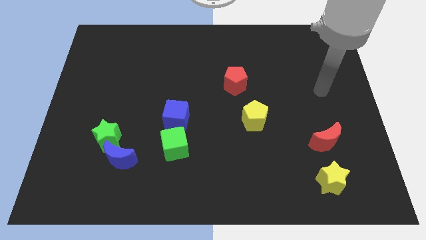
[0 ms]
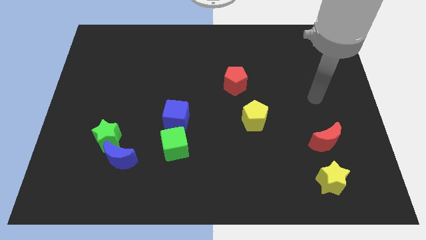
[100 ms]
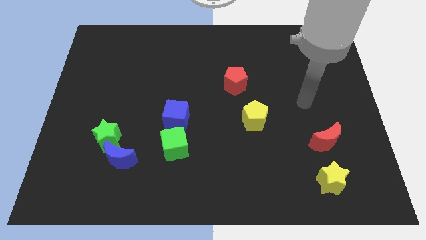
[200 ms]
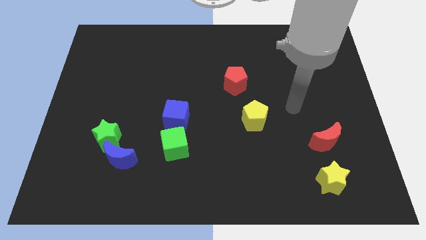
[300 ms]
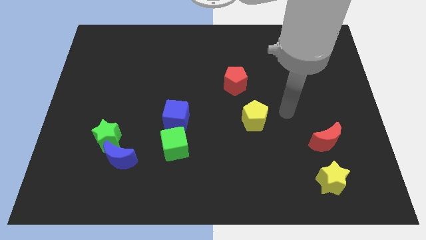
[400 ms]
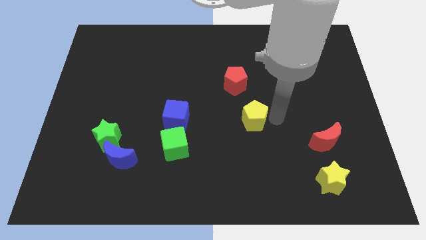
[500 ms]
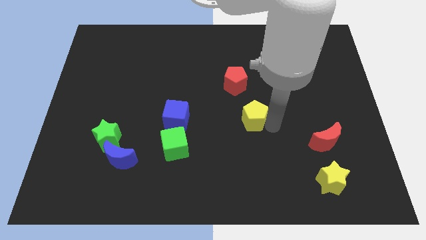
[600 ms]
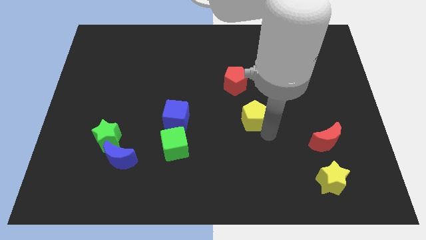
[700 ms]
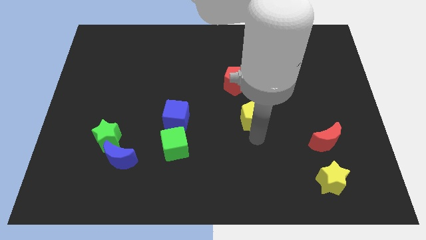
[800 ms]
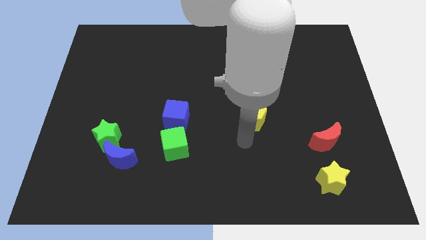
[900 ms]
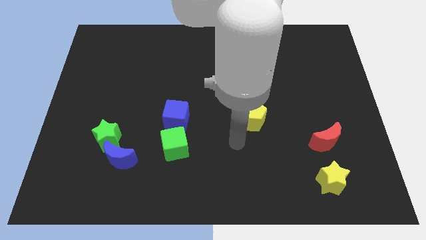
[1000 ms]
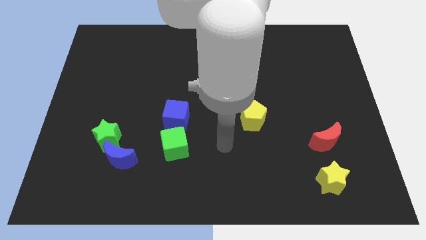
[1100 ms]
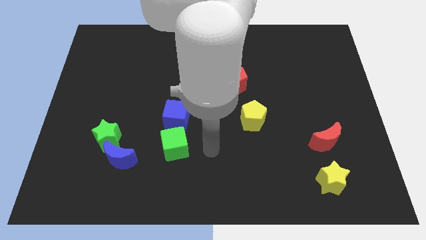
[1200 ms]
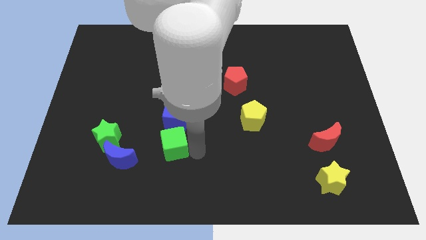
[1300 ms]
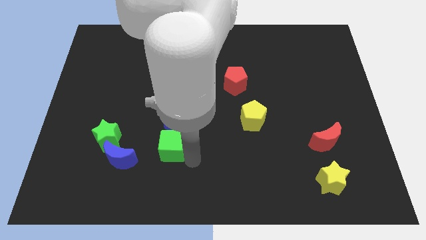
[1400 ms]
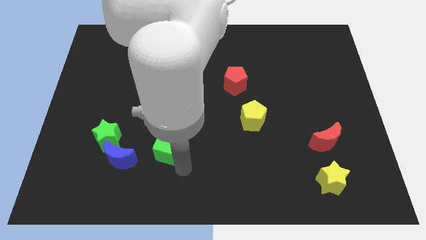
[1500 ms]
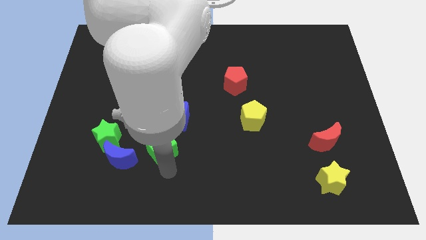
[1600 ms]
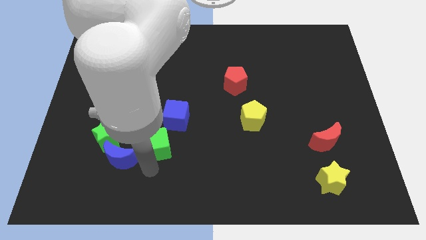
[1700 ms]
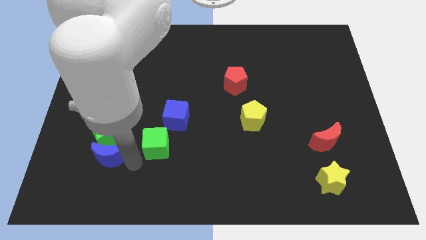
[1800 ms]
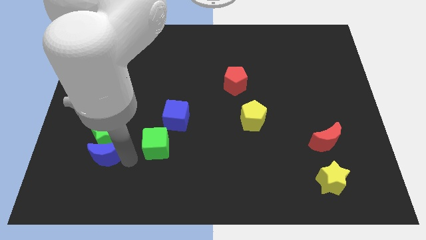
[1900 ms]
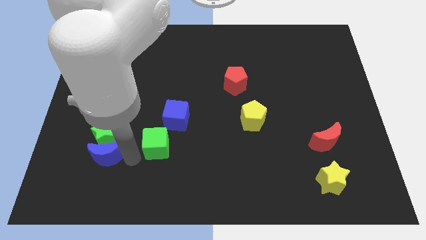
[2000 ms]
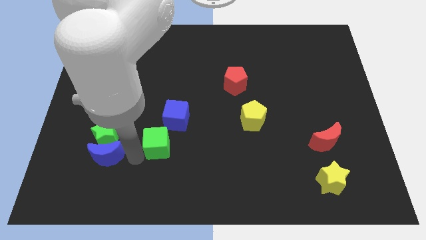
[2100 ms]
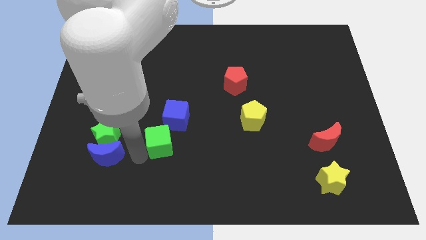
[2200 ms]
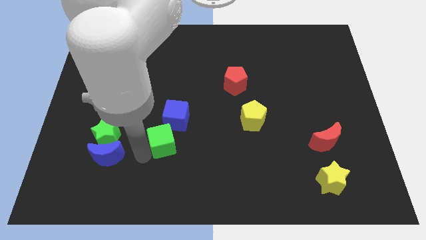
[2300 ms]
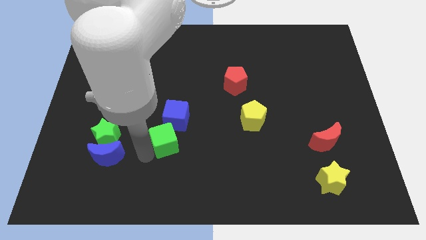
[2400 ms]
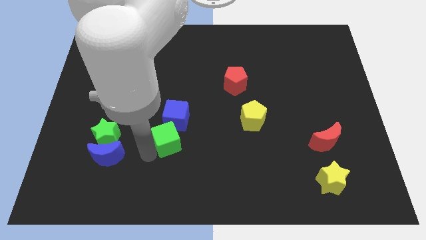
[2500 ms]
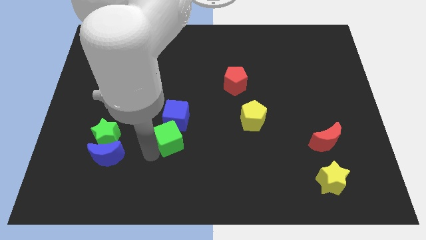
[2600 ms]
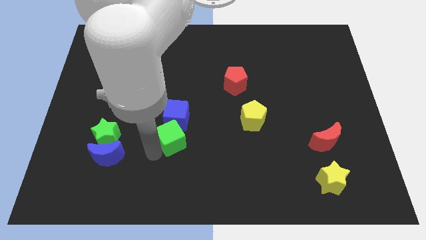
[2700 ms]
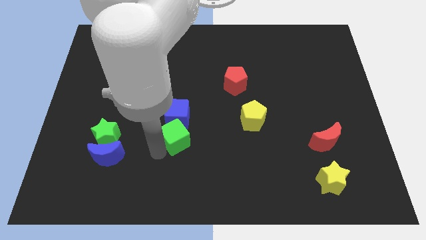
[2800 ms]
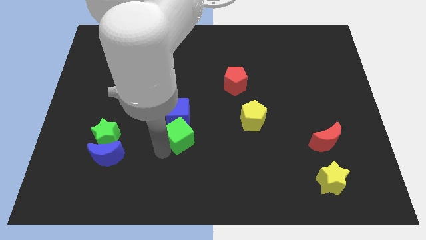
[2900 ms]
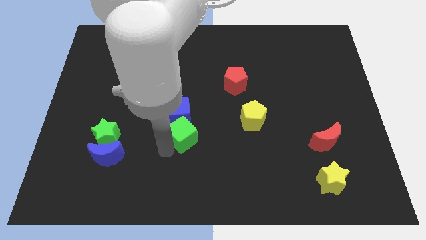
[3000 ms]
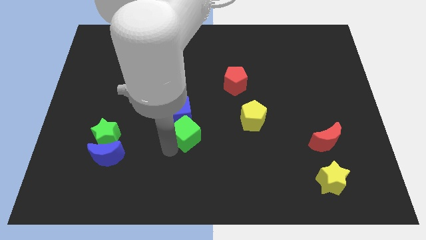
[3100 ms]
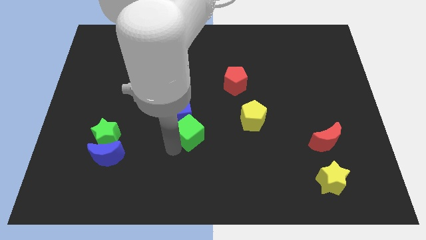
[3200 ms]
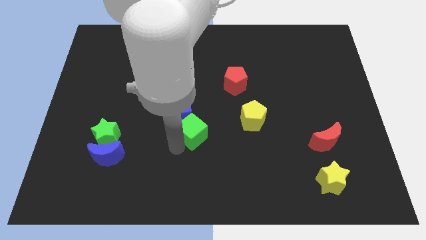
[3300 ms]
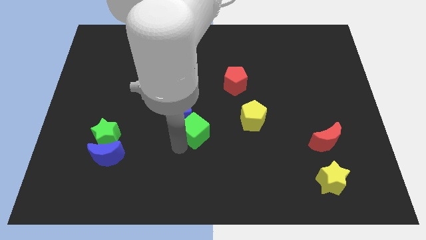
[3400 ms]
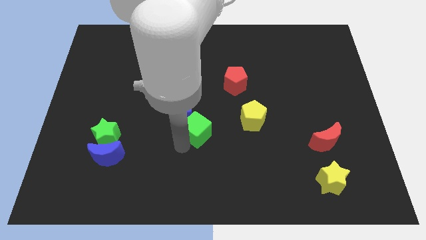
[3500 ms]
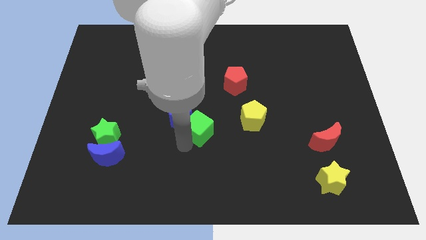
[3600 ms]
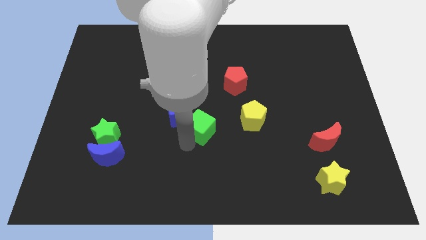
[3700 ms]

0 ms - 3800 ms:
slide the green cube slightly diagonally up and to the right

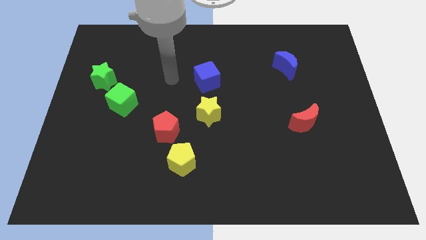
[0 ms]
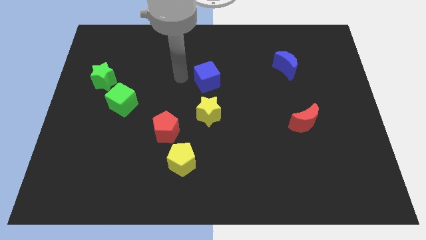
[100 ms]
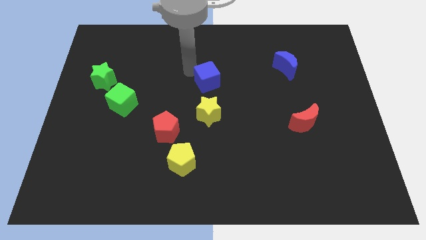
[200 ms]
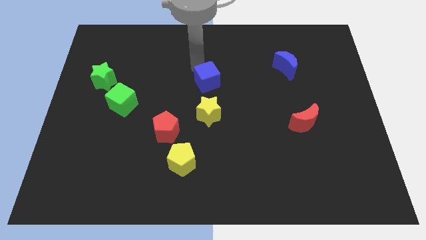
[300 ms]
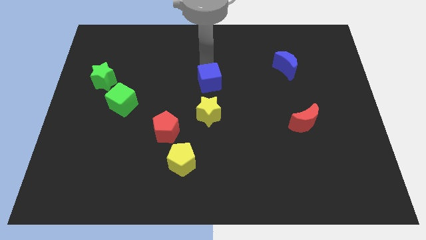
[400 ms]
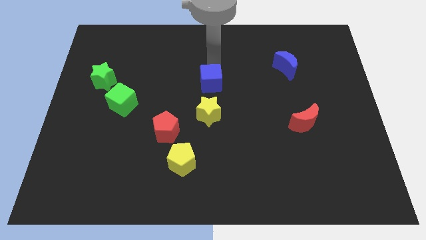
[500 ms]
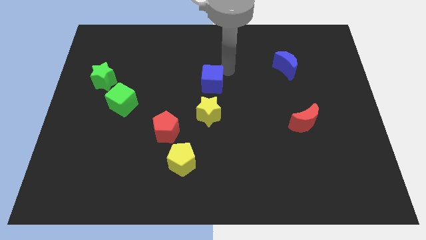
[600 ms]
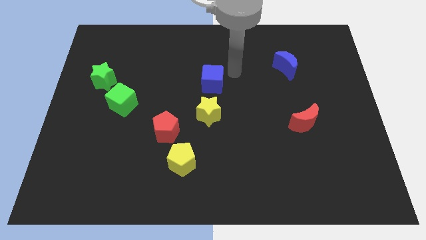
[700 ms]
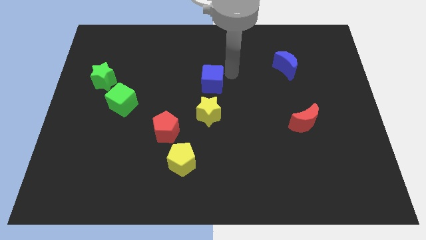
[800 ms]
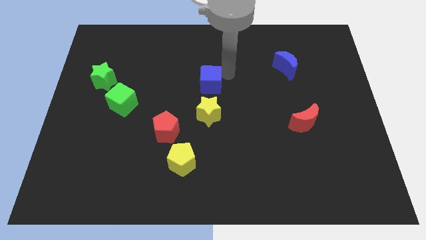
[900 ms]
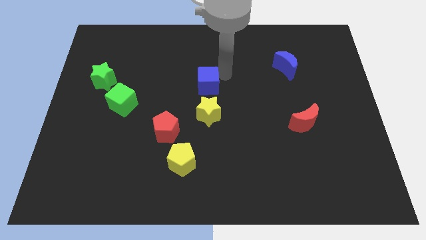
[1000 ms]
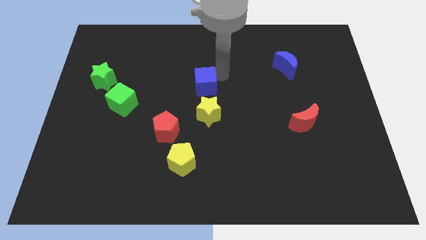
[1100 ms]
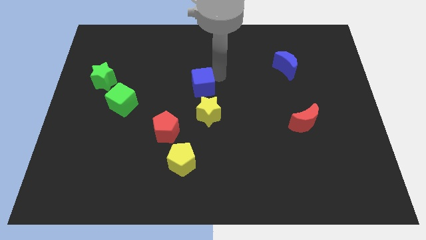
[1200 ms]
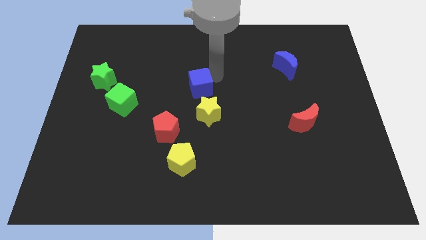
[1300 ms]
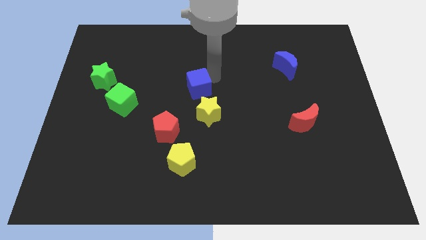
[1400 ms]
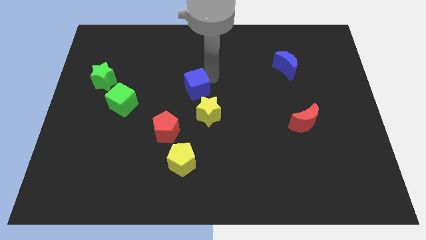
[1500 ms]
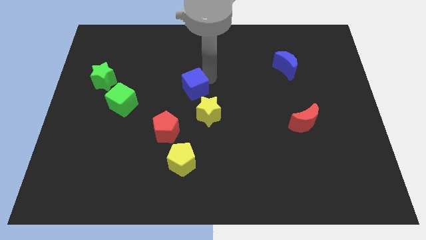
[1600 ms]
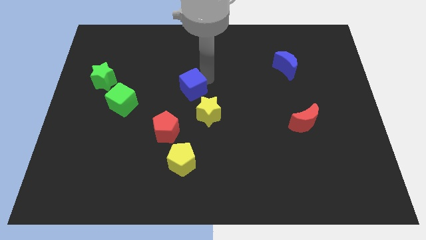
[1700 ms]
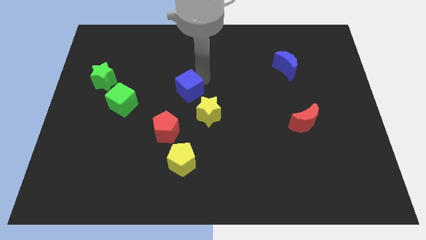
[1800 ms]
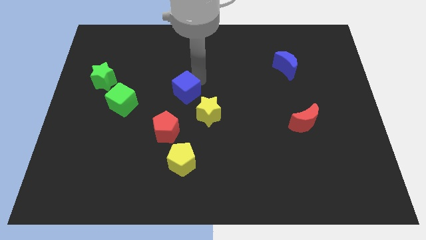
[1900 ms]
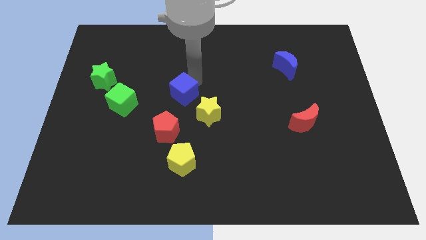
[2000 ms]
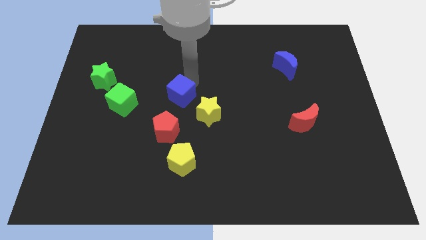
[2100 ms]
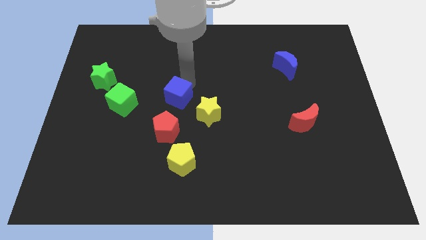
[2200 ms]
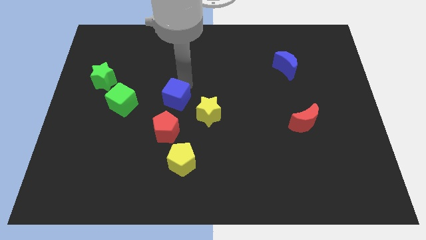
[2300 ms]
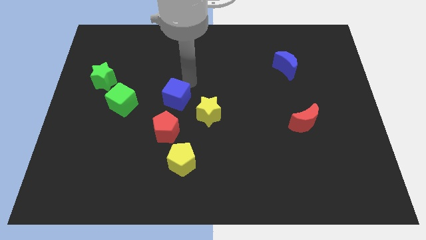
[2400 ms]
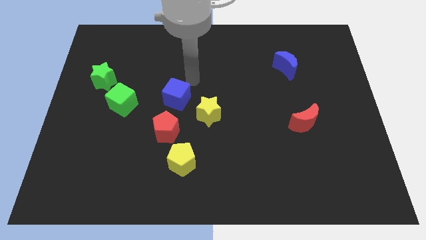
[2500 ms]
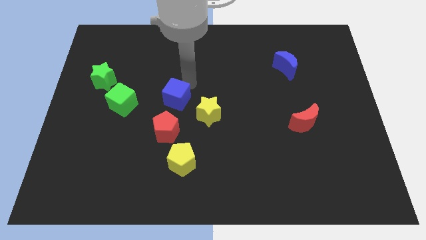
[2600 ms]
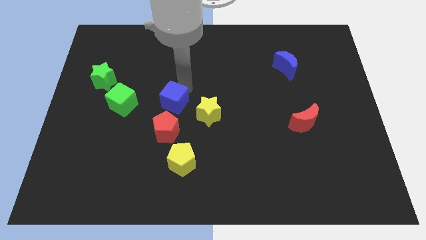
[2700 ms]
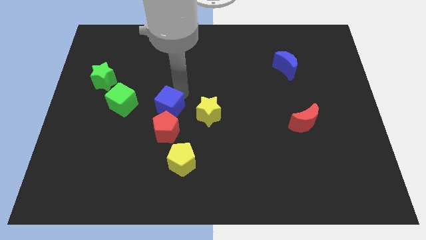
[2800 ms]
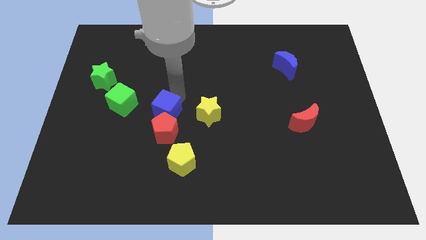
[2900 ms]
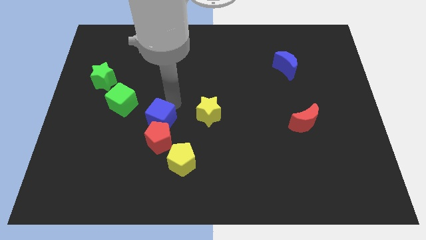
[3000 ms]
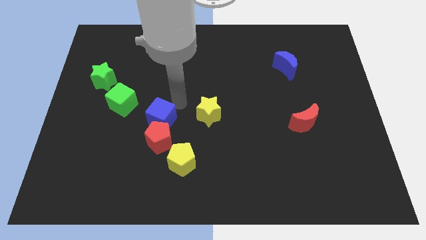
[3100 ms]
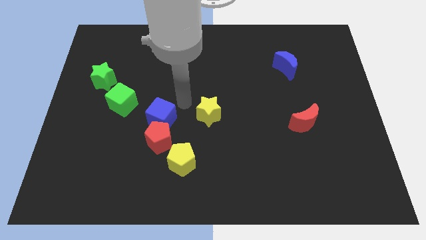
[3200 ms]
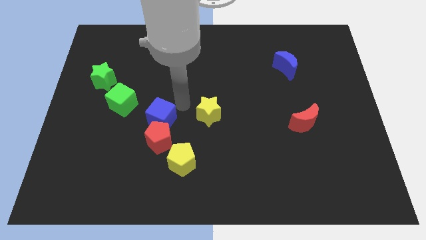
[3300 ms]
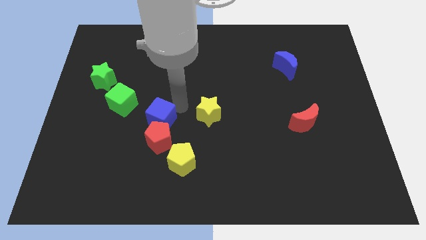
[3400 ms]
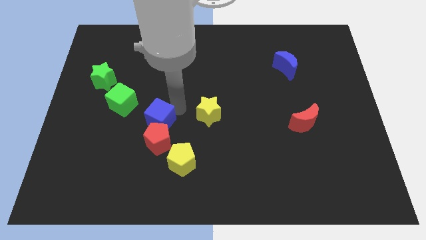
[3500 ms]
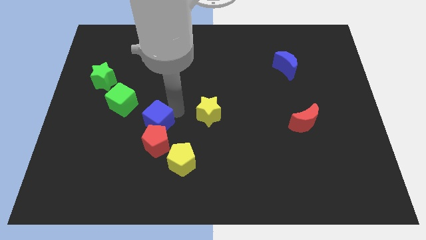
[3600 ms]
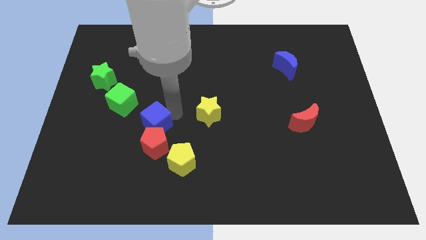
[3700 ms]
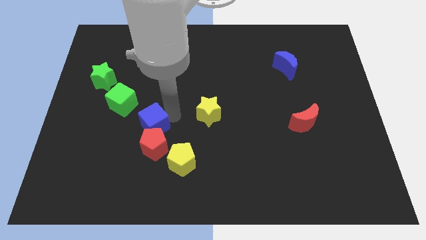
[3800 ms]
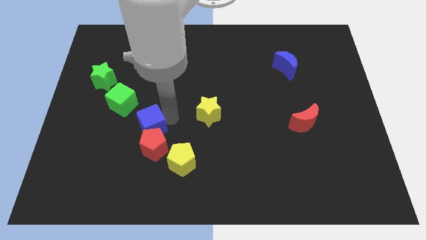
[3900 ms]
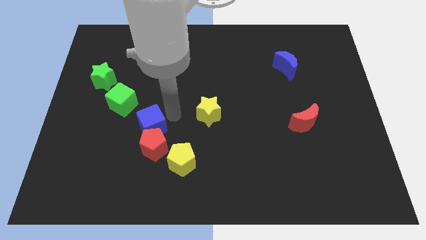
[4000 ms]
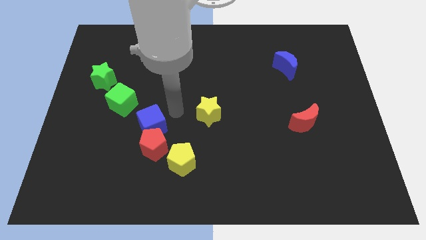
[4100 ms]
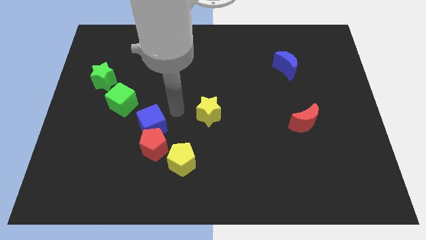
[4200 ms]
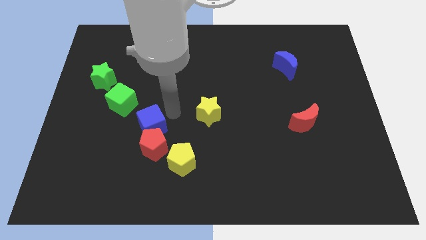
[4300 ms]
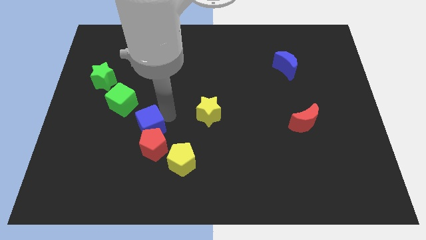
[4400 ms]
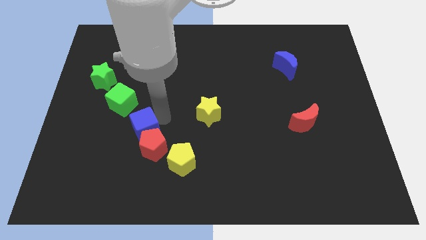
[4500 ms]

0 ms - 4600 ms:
move the blue cube downwards and left
